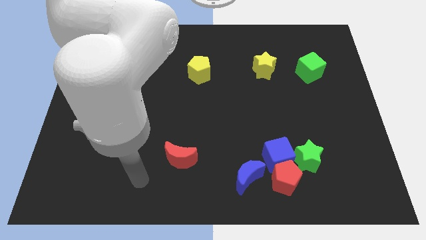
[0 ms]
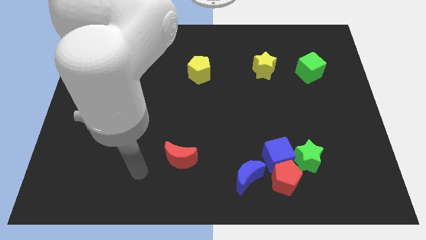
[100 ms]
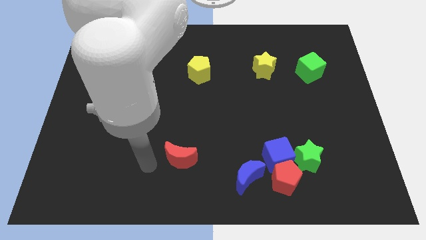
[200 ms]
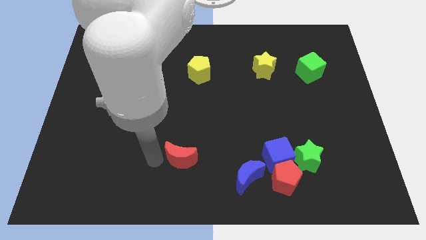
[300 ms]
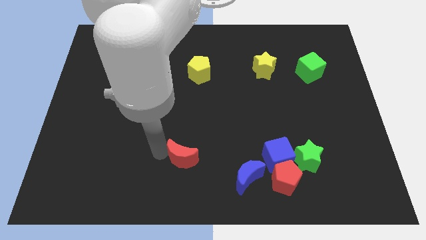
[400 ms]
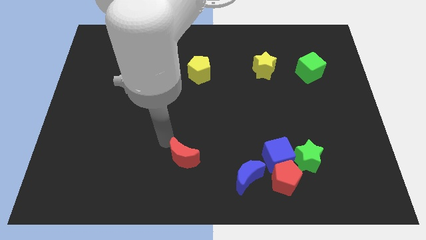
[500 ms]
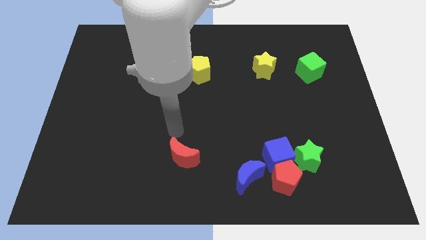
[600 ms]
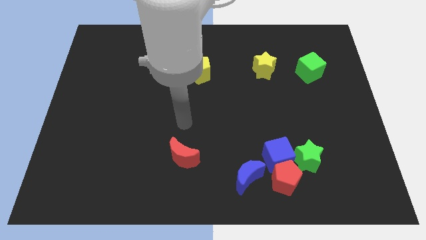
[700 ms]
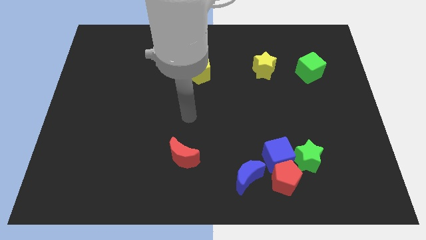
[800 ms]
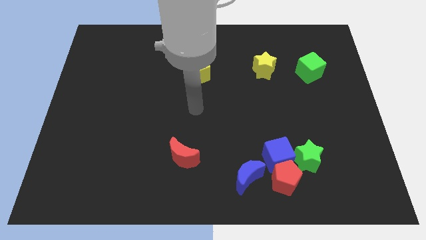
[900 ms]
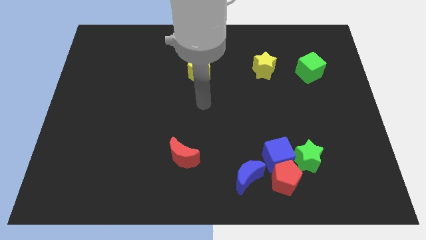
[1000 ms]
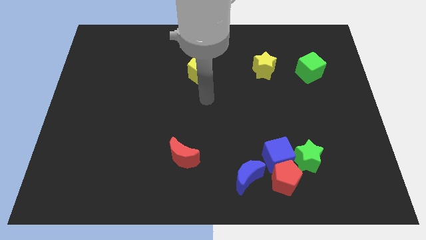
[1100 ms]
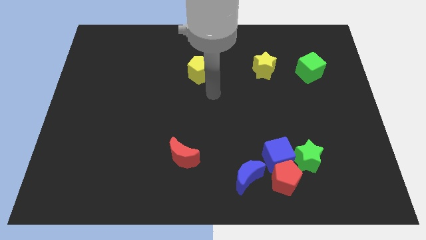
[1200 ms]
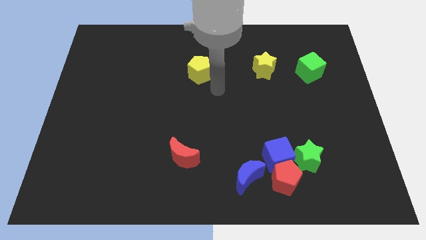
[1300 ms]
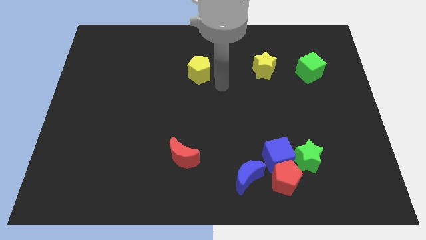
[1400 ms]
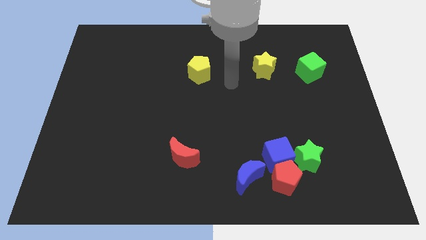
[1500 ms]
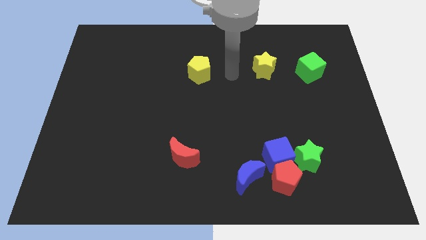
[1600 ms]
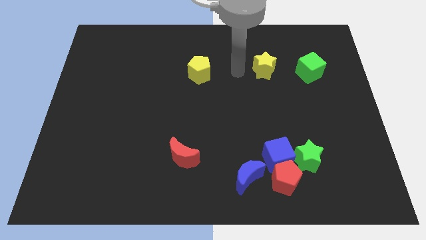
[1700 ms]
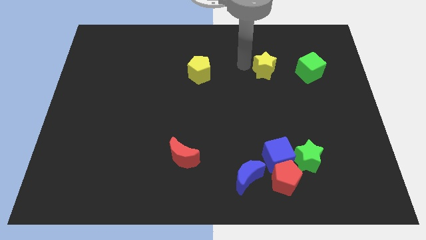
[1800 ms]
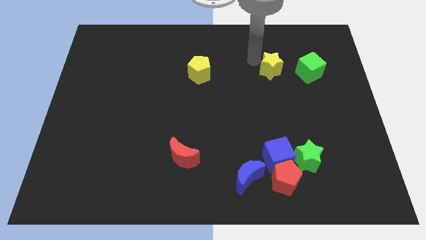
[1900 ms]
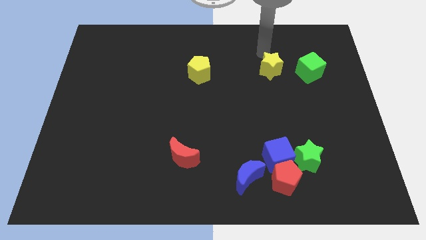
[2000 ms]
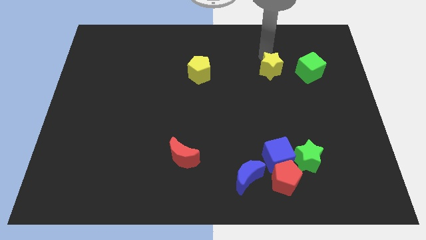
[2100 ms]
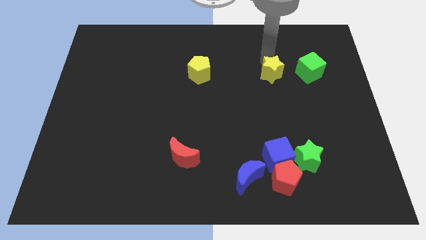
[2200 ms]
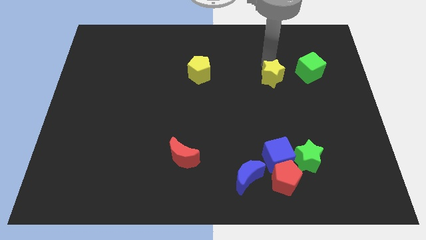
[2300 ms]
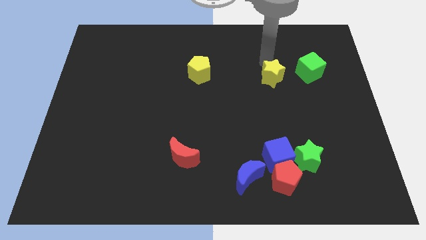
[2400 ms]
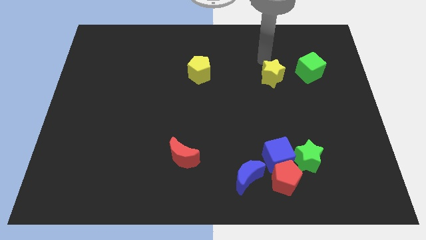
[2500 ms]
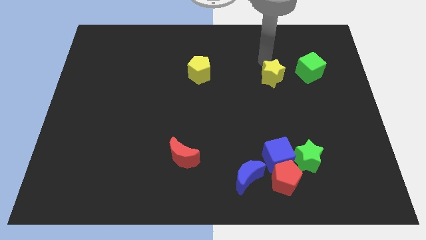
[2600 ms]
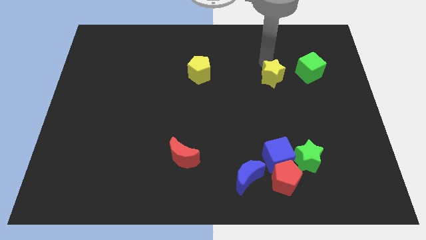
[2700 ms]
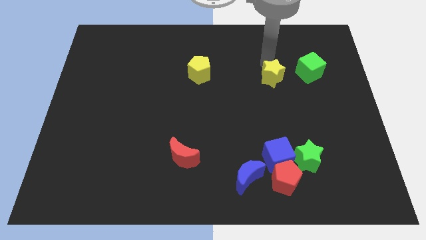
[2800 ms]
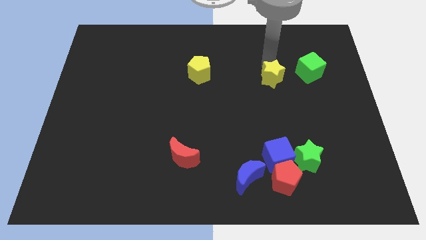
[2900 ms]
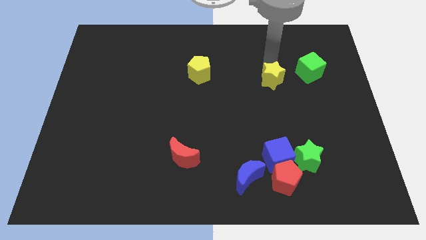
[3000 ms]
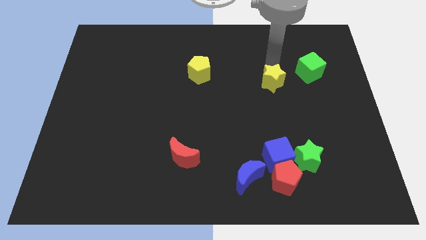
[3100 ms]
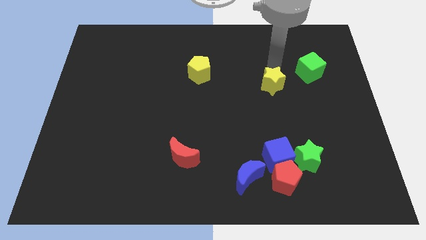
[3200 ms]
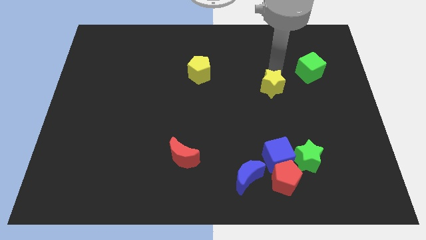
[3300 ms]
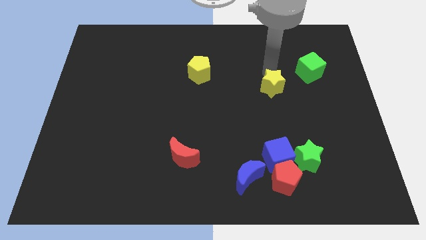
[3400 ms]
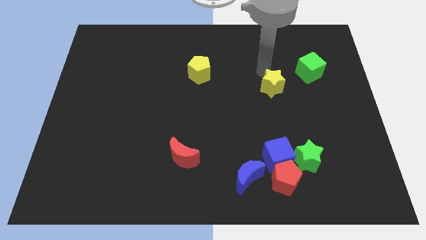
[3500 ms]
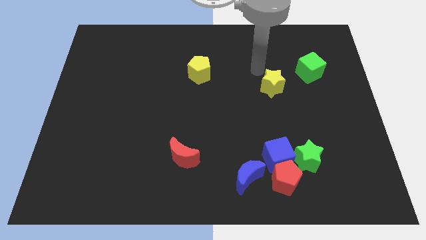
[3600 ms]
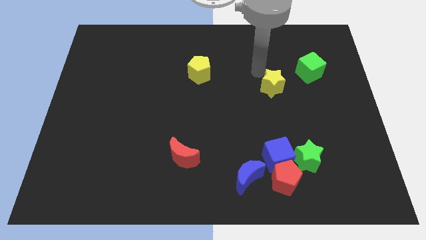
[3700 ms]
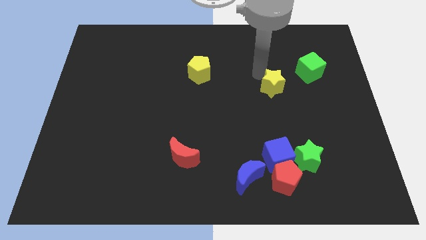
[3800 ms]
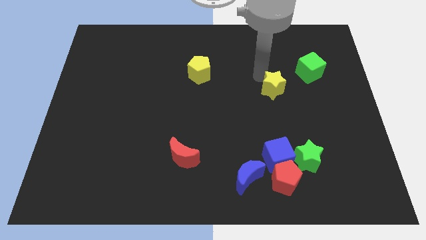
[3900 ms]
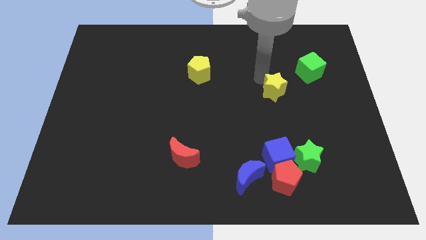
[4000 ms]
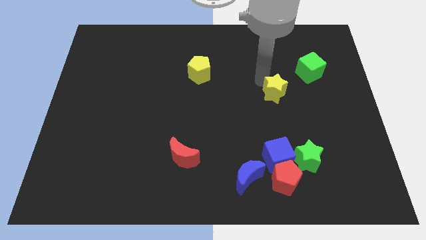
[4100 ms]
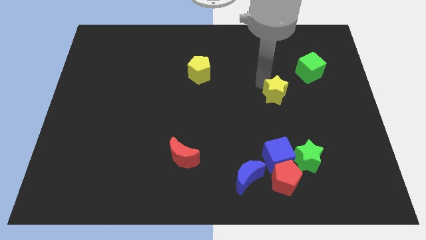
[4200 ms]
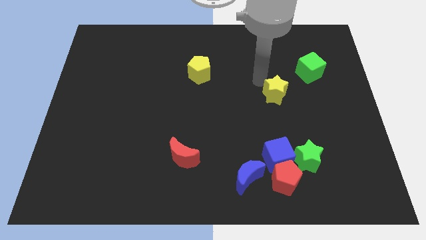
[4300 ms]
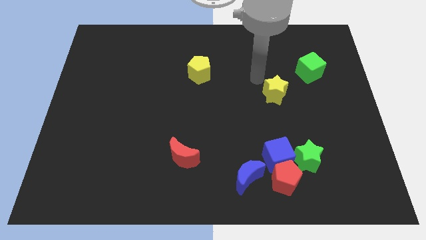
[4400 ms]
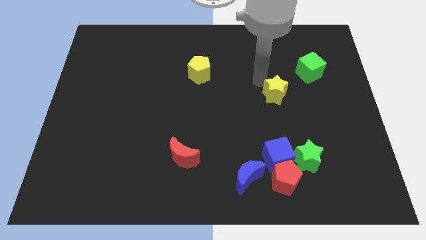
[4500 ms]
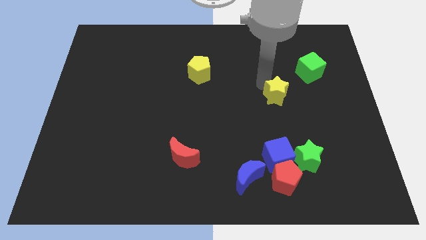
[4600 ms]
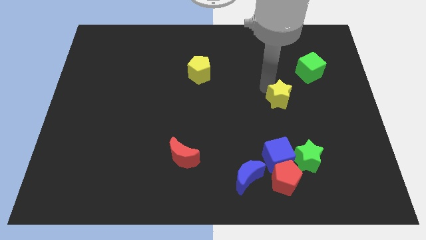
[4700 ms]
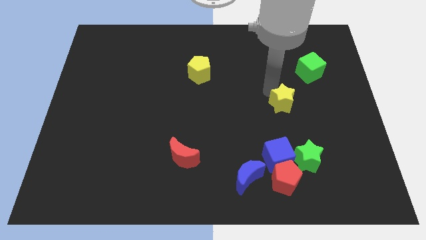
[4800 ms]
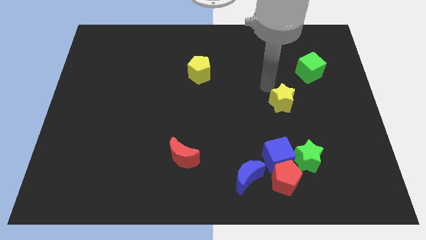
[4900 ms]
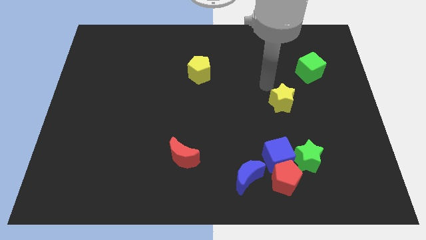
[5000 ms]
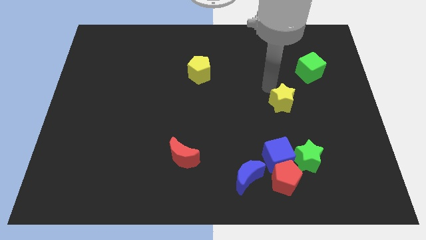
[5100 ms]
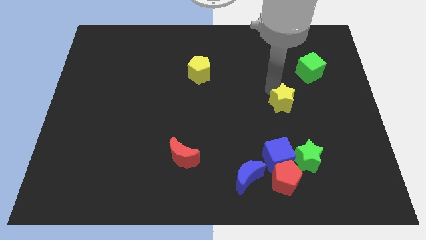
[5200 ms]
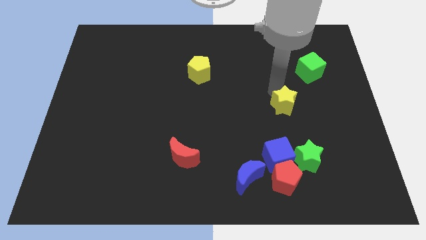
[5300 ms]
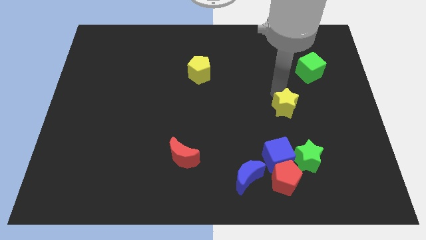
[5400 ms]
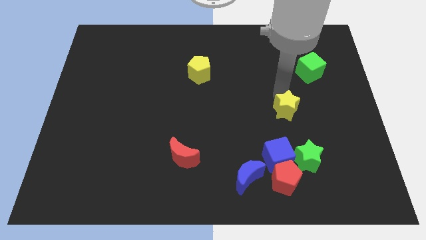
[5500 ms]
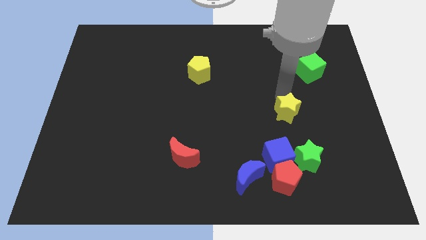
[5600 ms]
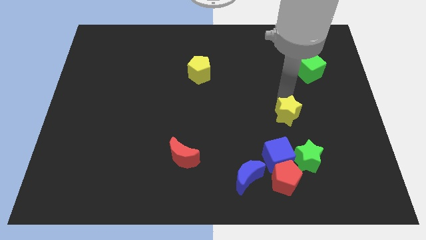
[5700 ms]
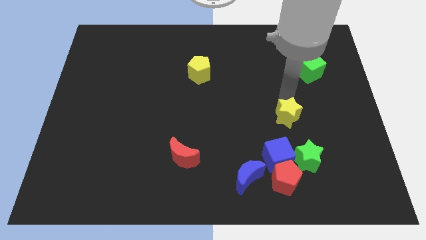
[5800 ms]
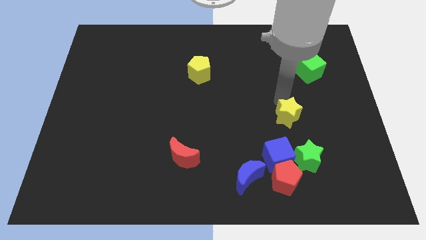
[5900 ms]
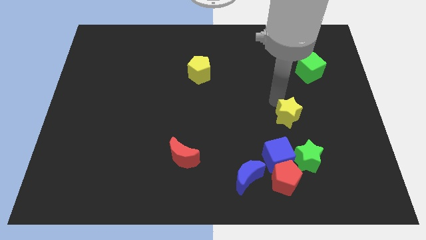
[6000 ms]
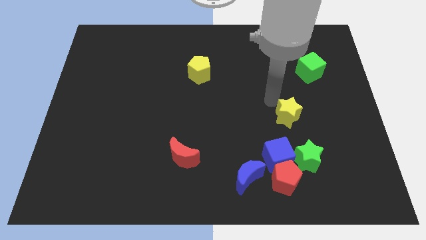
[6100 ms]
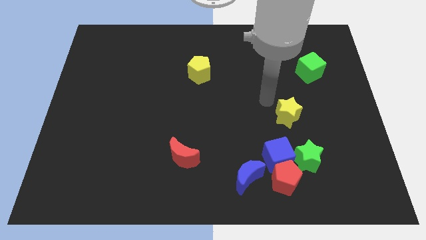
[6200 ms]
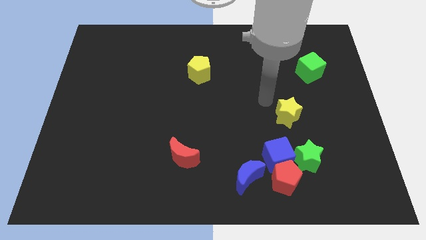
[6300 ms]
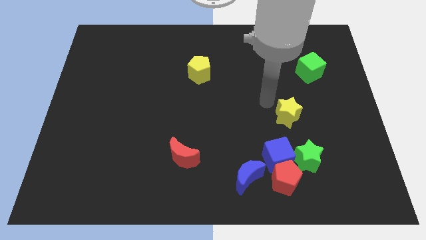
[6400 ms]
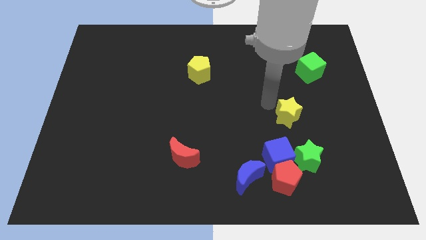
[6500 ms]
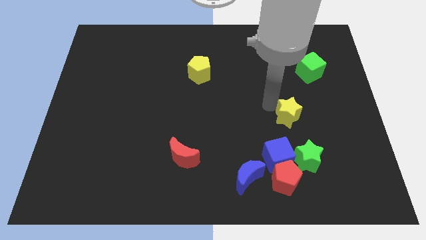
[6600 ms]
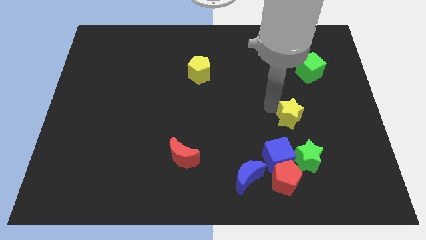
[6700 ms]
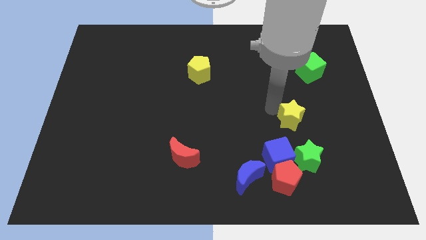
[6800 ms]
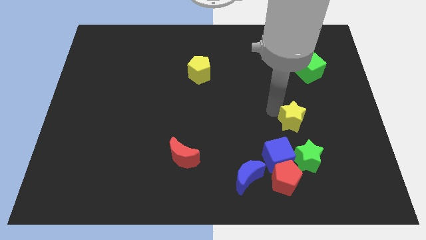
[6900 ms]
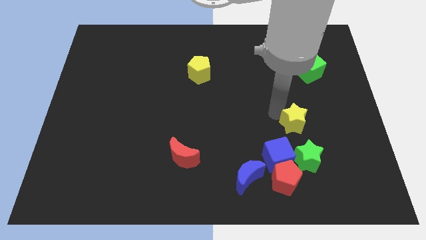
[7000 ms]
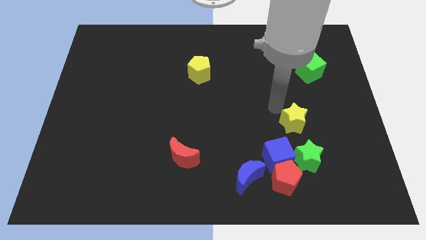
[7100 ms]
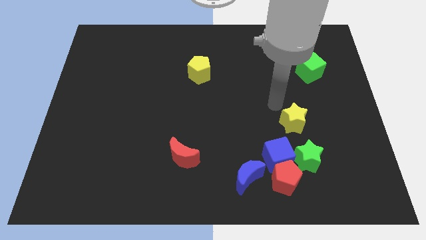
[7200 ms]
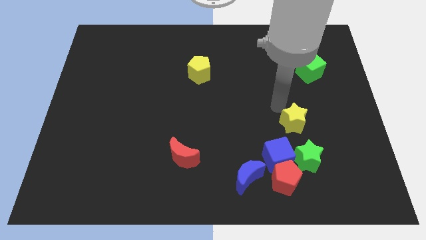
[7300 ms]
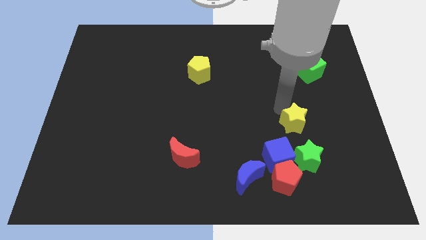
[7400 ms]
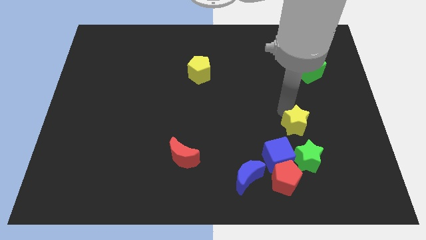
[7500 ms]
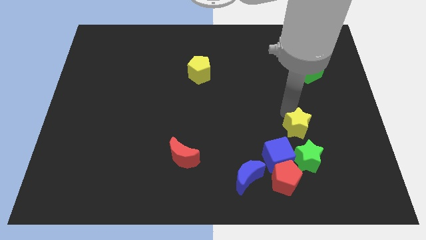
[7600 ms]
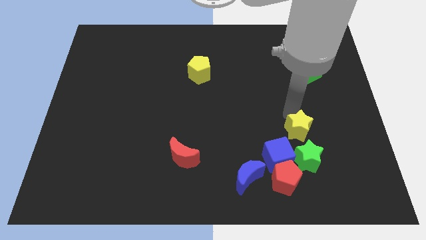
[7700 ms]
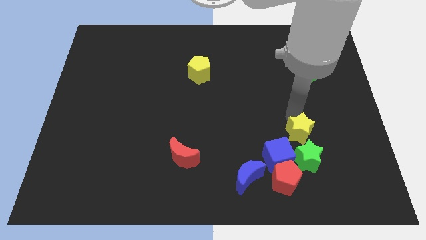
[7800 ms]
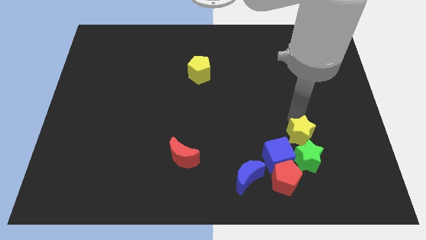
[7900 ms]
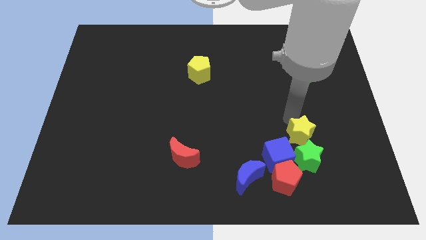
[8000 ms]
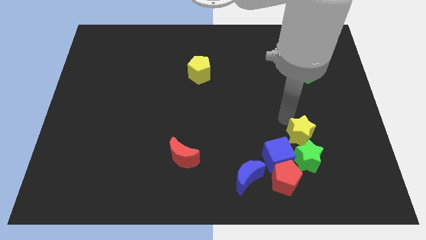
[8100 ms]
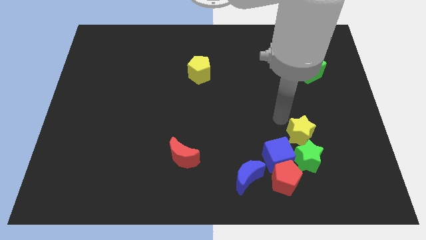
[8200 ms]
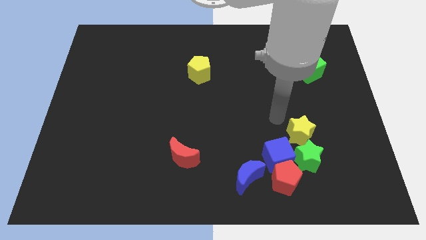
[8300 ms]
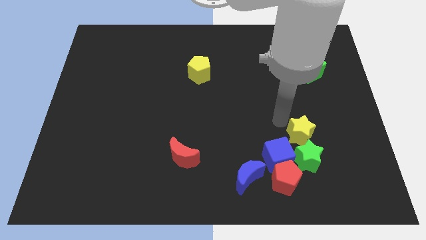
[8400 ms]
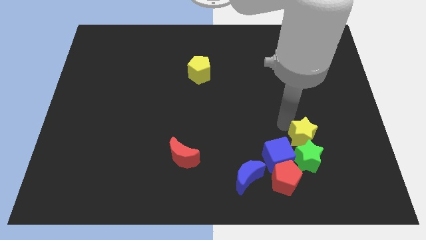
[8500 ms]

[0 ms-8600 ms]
move the yellow star to the top right of the red pentagon
